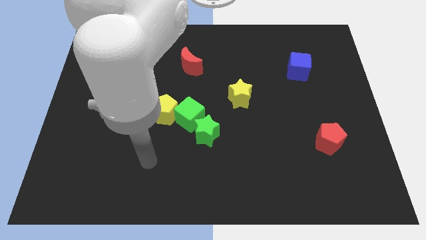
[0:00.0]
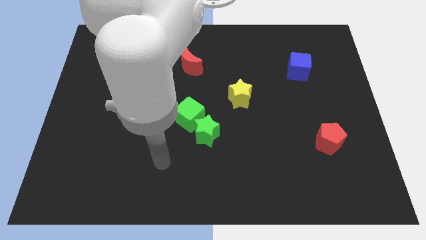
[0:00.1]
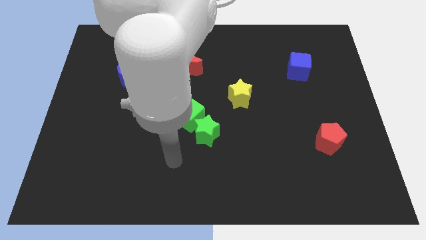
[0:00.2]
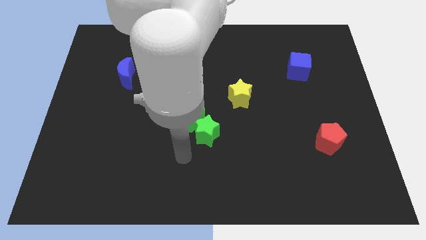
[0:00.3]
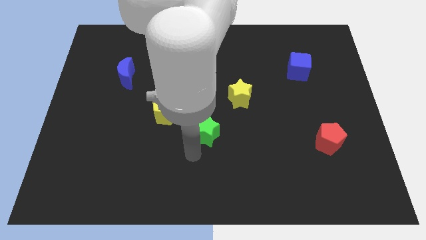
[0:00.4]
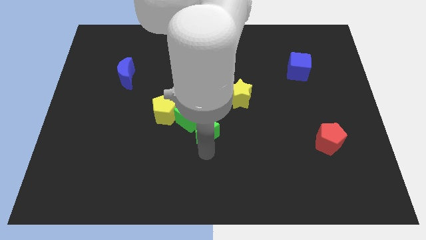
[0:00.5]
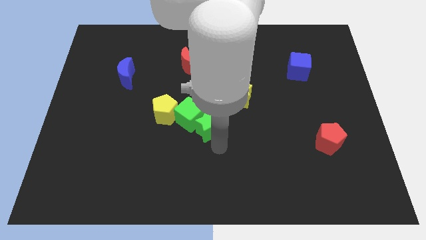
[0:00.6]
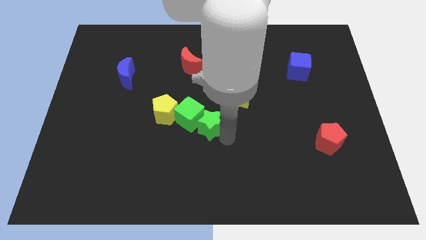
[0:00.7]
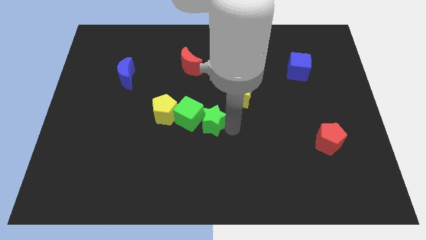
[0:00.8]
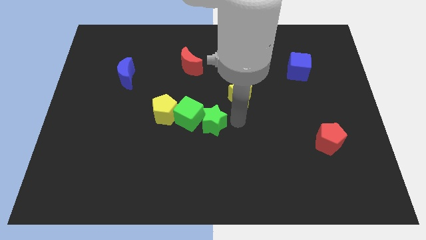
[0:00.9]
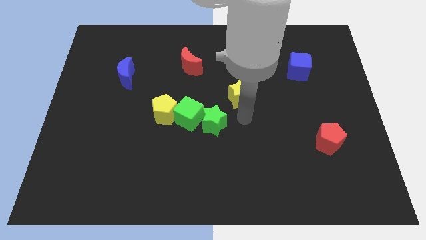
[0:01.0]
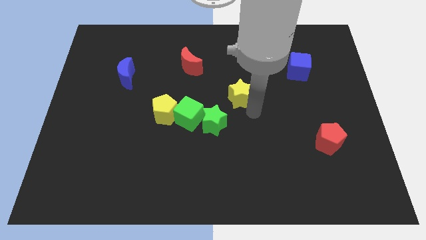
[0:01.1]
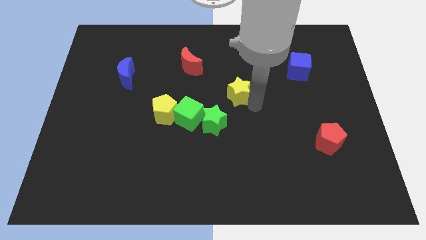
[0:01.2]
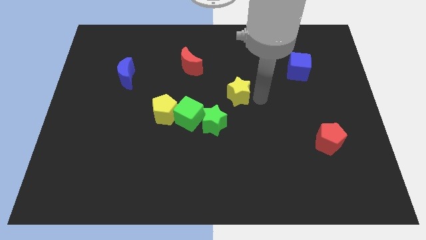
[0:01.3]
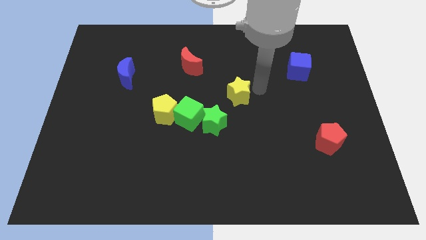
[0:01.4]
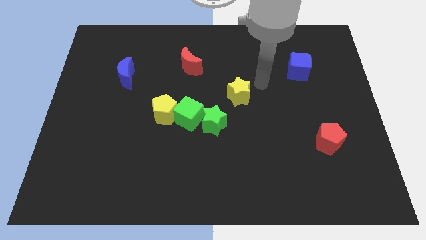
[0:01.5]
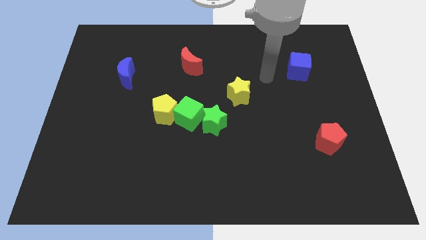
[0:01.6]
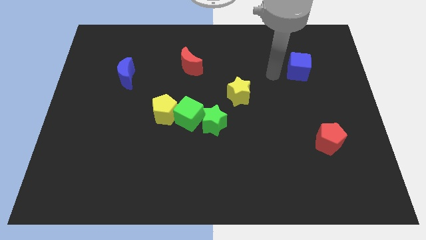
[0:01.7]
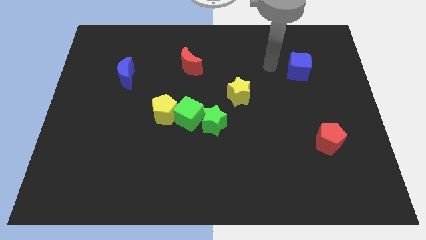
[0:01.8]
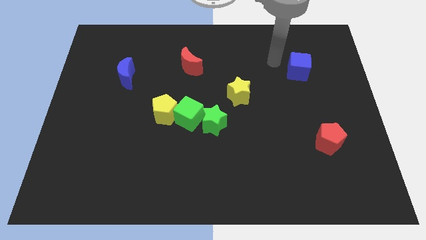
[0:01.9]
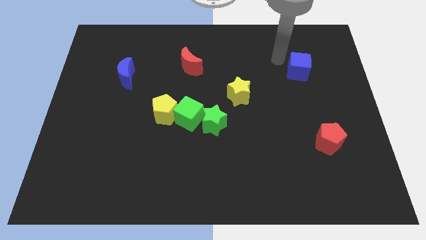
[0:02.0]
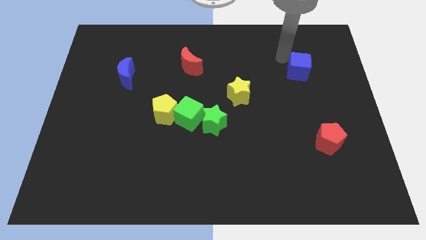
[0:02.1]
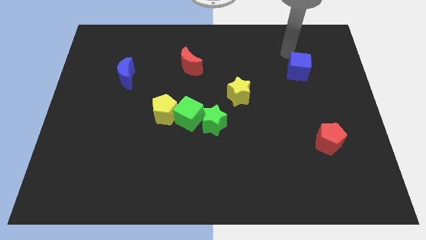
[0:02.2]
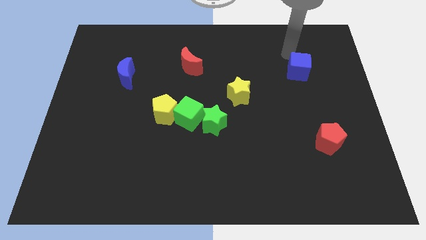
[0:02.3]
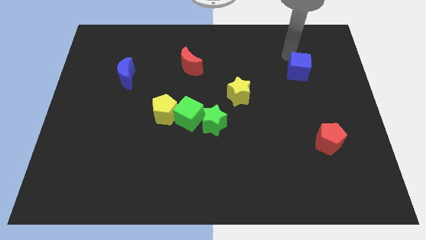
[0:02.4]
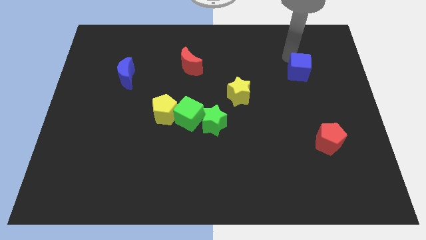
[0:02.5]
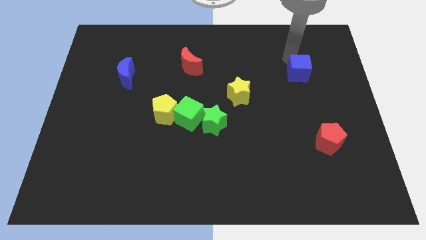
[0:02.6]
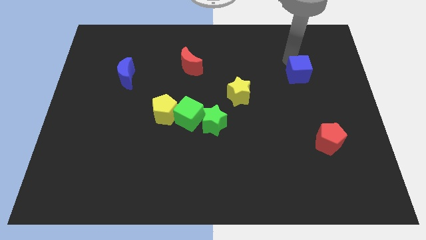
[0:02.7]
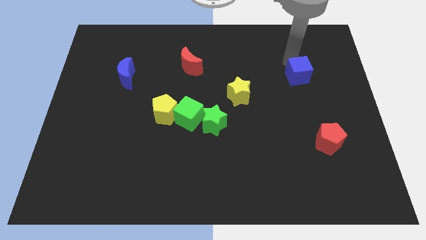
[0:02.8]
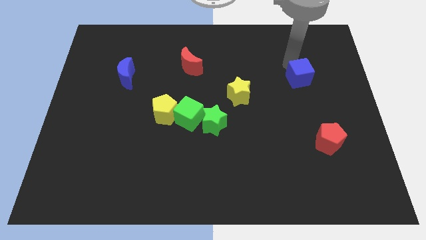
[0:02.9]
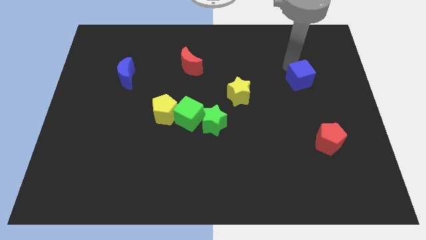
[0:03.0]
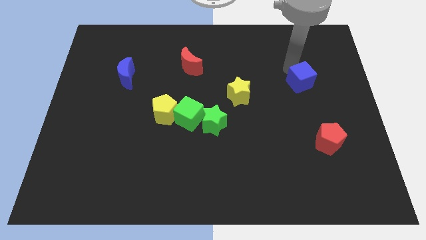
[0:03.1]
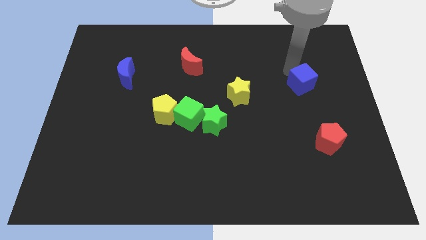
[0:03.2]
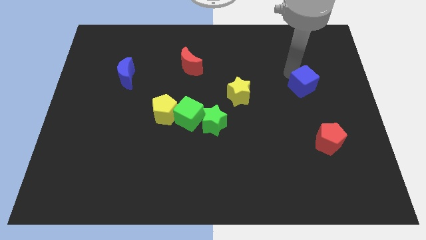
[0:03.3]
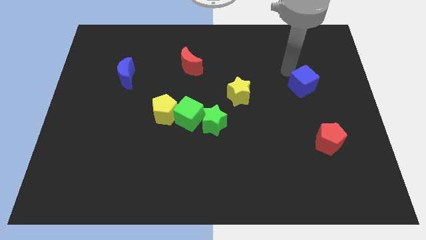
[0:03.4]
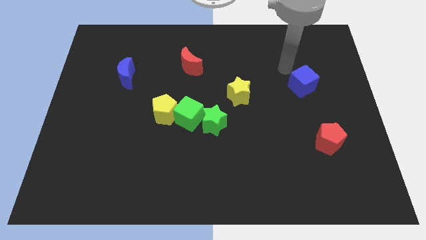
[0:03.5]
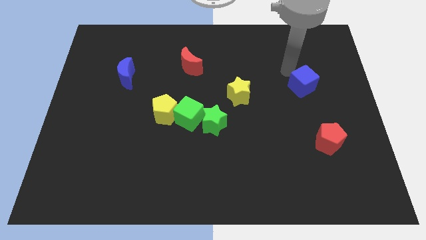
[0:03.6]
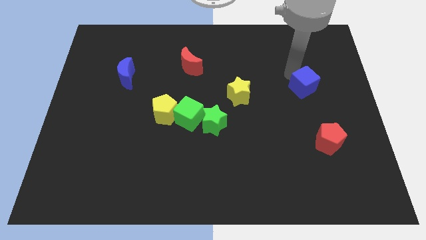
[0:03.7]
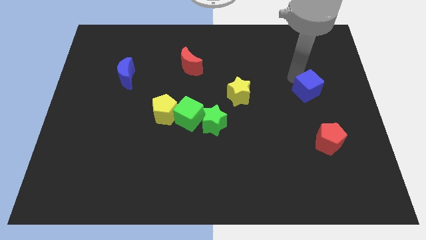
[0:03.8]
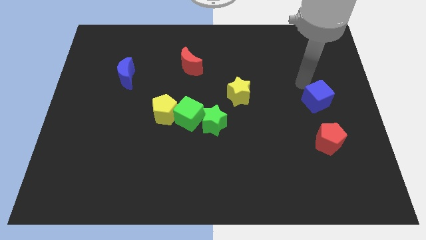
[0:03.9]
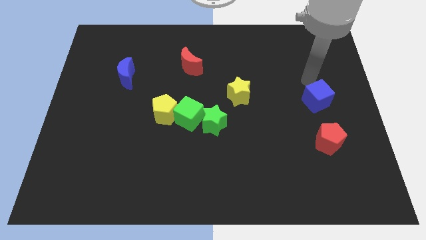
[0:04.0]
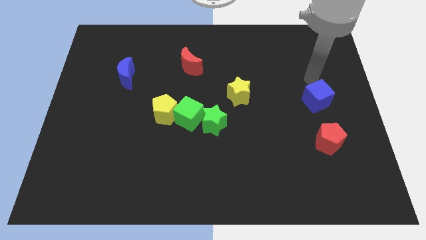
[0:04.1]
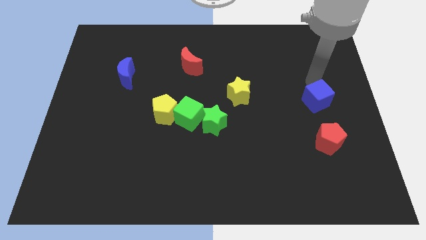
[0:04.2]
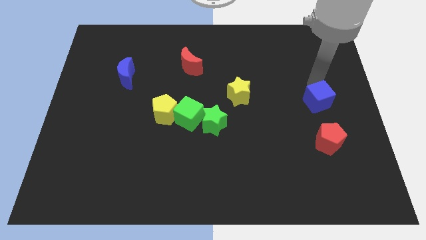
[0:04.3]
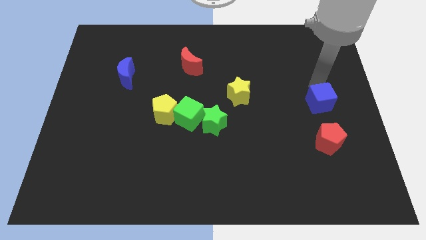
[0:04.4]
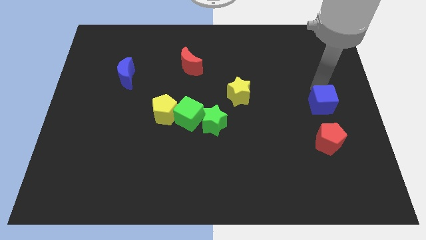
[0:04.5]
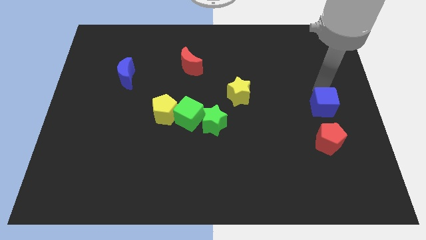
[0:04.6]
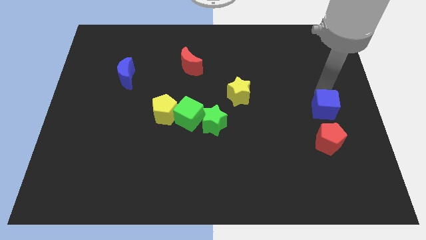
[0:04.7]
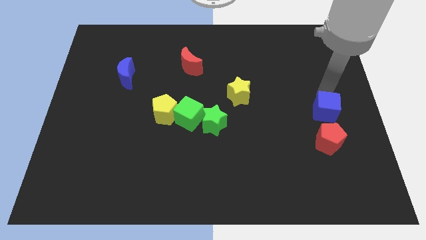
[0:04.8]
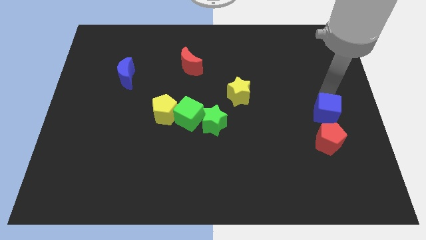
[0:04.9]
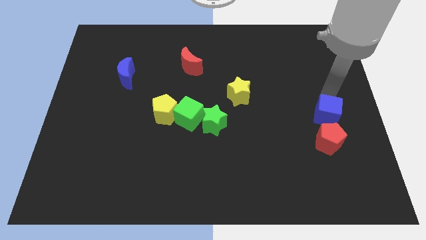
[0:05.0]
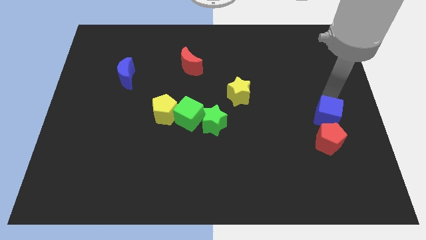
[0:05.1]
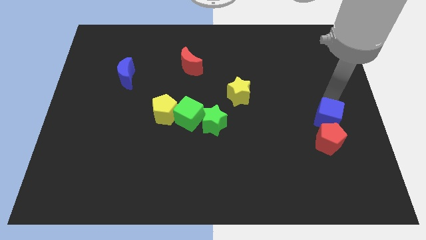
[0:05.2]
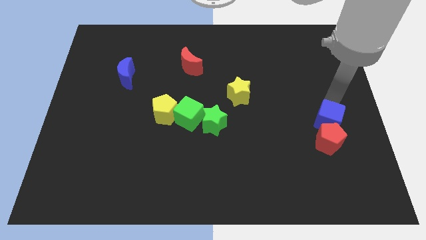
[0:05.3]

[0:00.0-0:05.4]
slide the blue cube next to the red pentagon

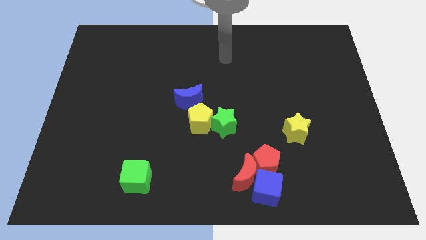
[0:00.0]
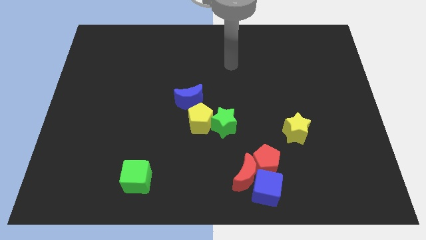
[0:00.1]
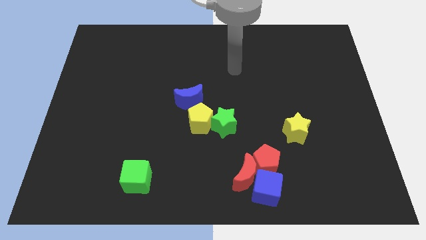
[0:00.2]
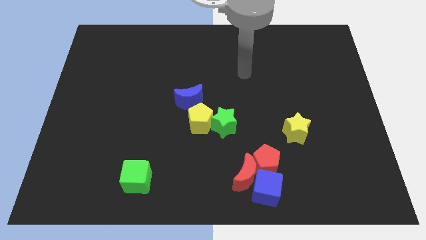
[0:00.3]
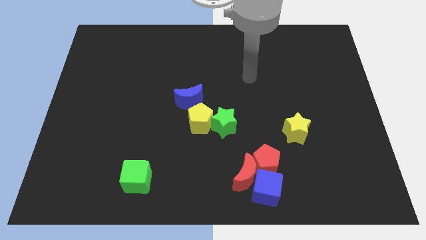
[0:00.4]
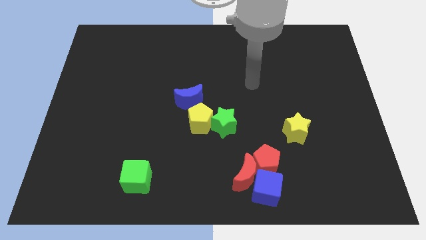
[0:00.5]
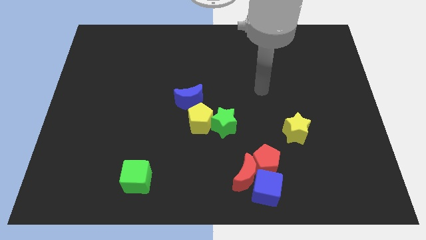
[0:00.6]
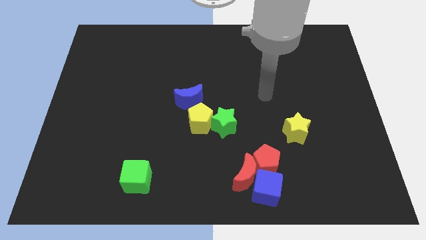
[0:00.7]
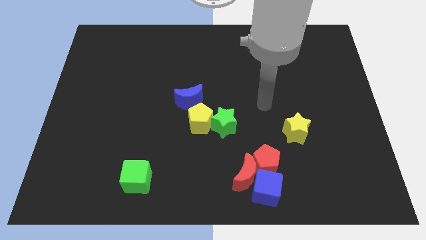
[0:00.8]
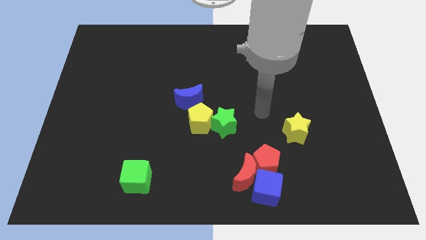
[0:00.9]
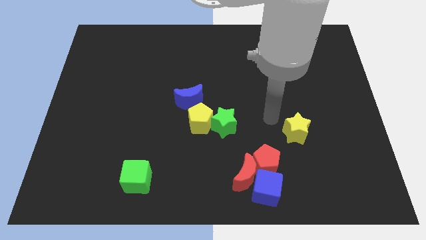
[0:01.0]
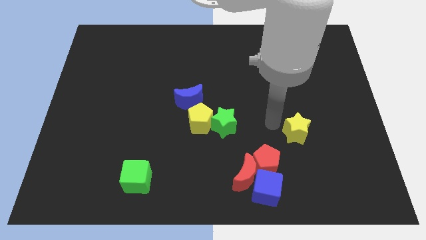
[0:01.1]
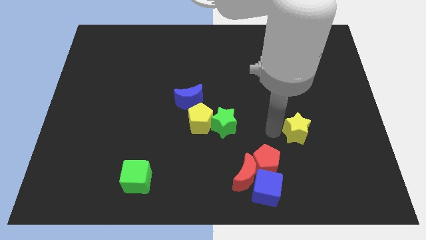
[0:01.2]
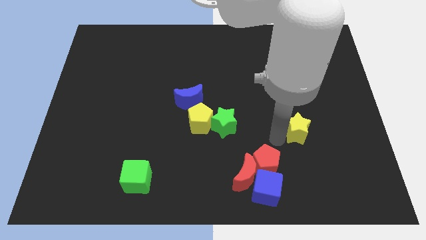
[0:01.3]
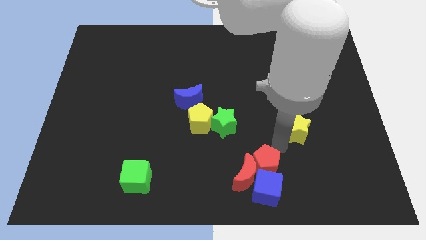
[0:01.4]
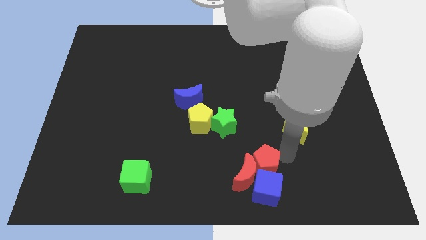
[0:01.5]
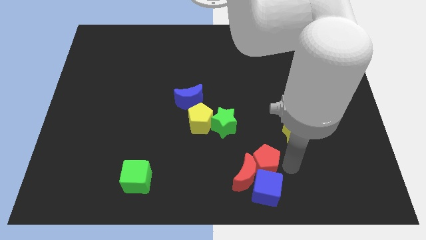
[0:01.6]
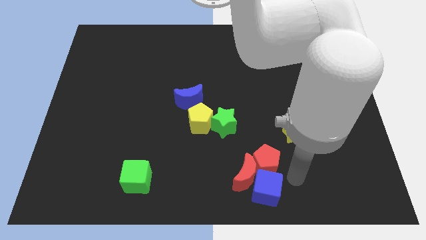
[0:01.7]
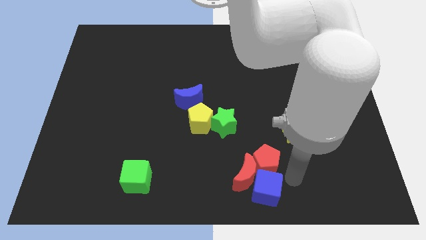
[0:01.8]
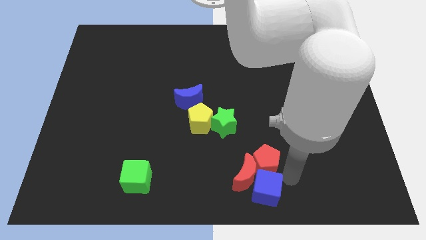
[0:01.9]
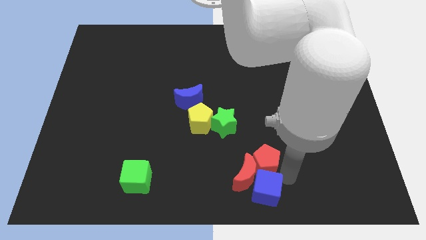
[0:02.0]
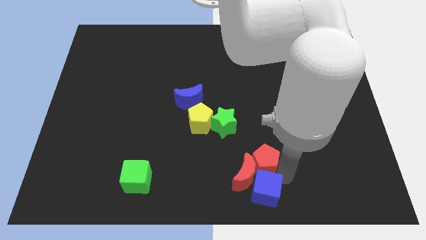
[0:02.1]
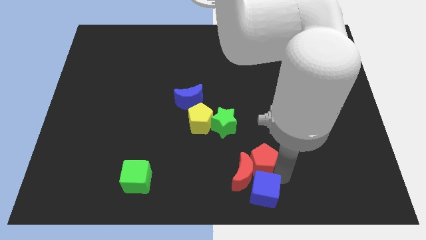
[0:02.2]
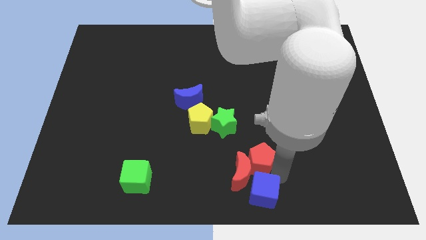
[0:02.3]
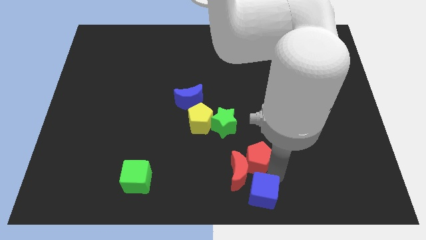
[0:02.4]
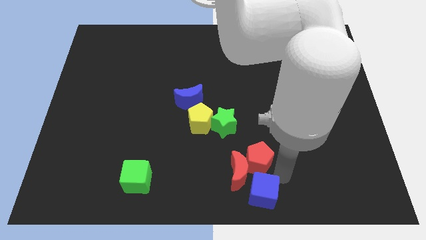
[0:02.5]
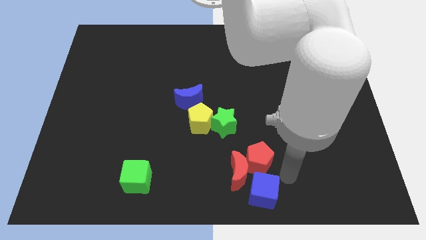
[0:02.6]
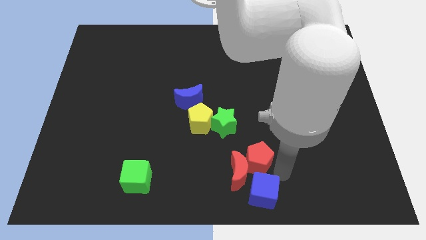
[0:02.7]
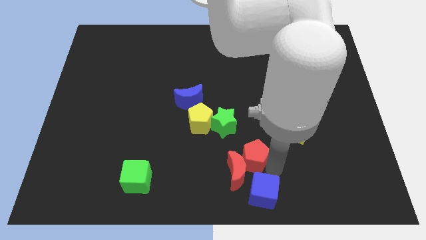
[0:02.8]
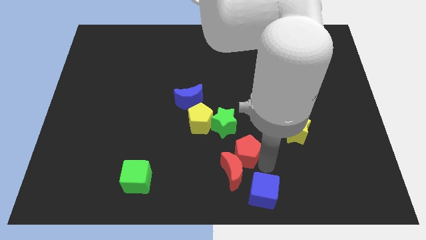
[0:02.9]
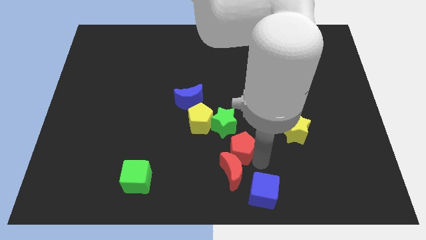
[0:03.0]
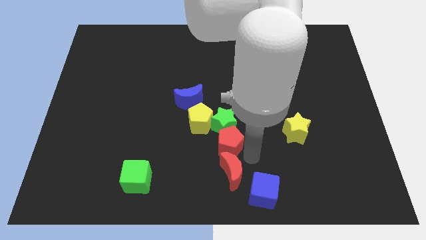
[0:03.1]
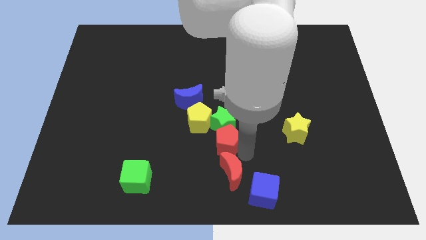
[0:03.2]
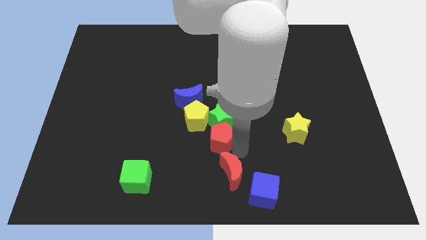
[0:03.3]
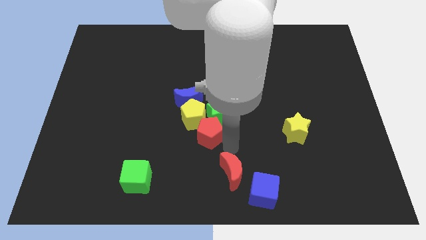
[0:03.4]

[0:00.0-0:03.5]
put the red pentagon towards the yellow pentagon
